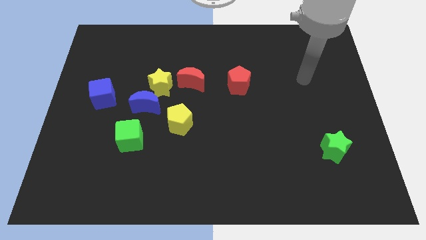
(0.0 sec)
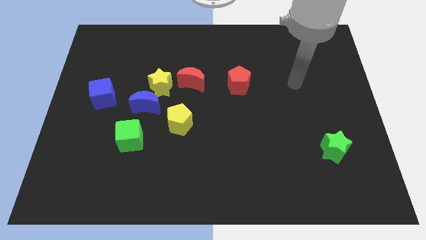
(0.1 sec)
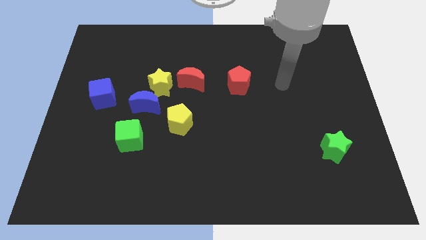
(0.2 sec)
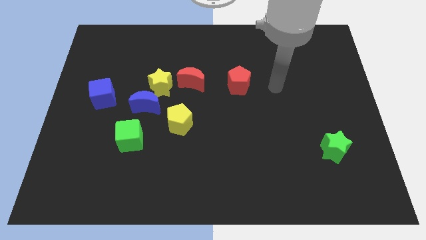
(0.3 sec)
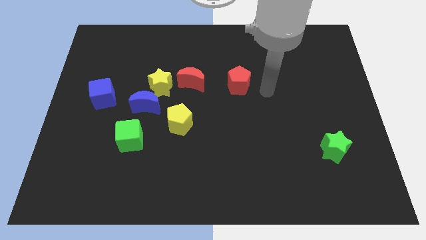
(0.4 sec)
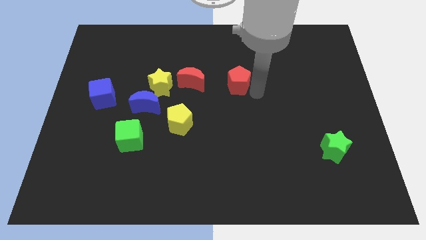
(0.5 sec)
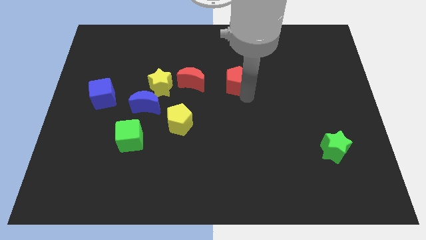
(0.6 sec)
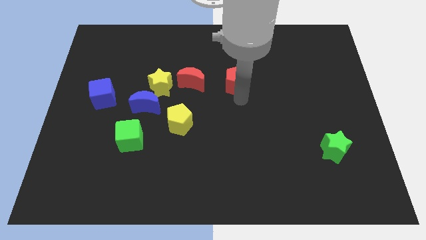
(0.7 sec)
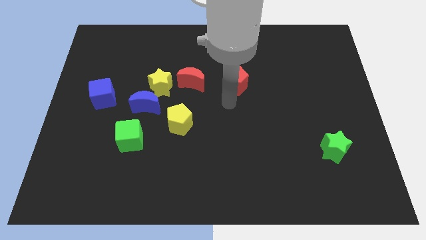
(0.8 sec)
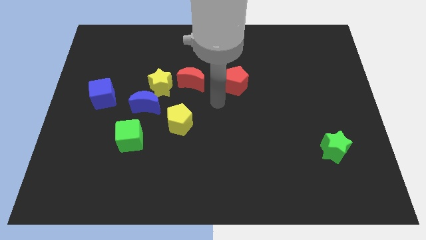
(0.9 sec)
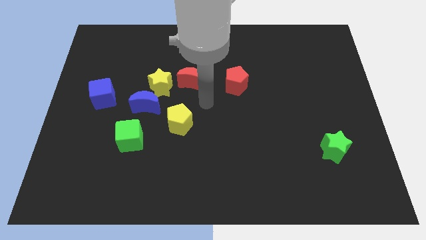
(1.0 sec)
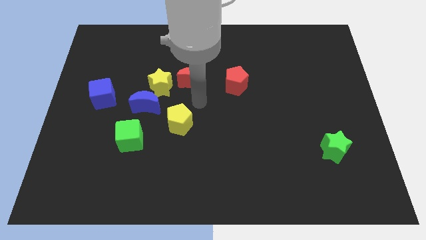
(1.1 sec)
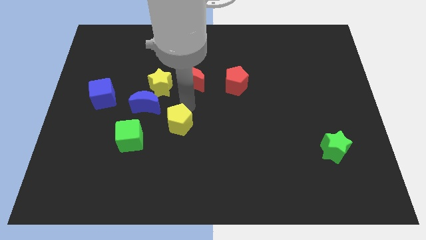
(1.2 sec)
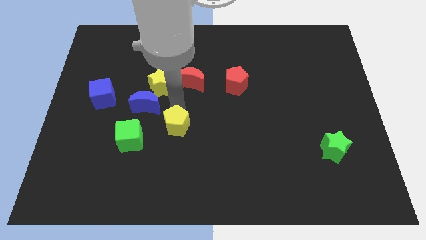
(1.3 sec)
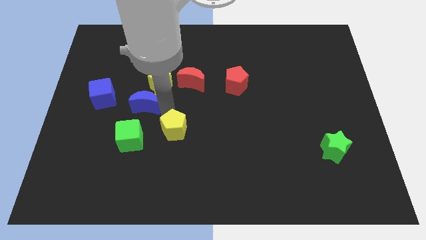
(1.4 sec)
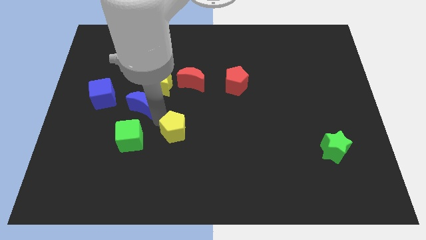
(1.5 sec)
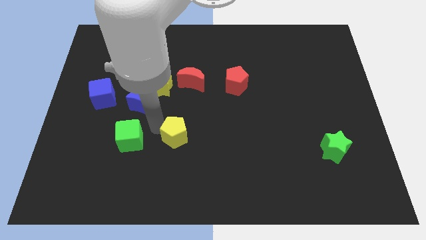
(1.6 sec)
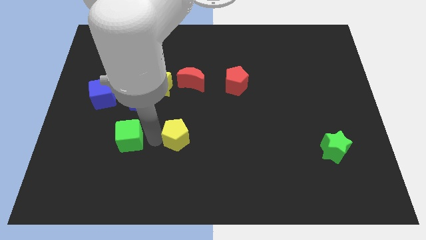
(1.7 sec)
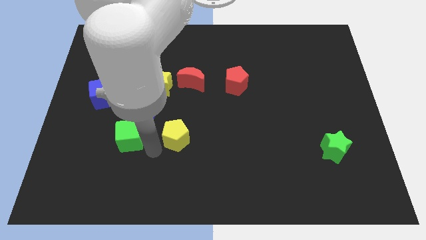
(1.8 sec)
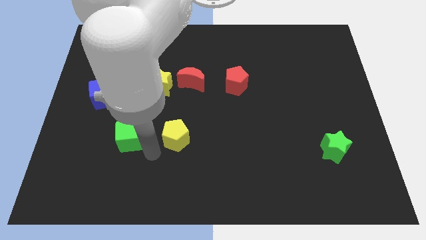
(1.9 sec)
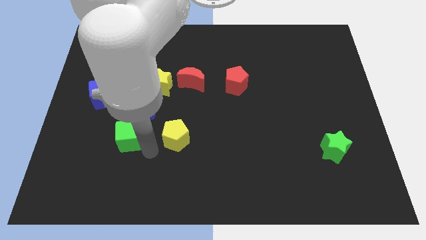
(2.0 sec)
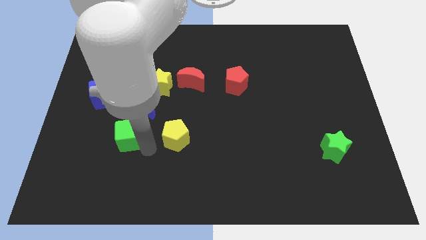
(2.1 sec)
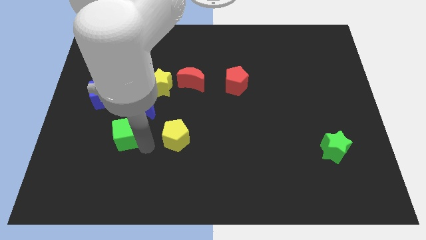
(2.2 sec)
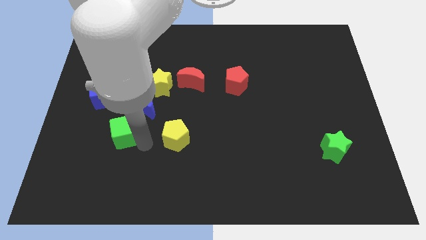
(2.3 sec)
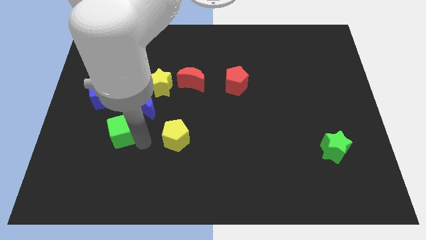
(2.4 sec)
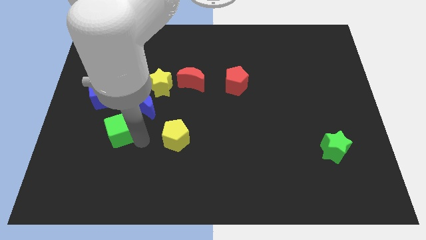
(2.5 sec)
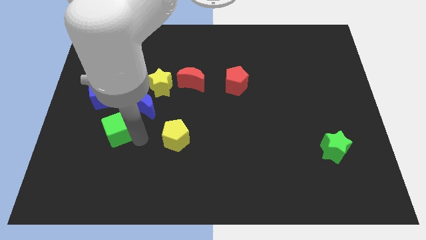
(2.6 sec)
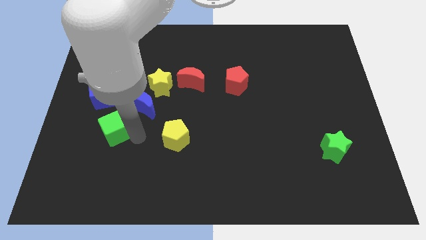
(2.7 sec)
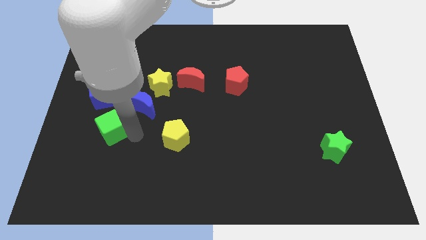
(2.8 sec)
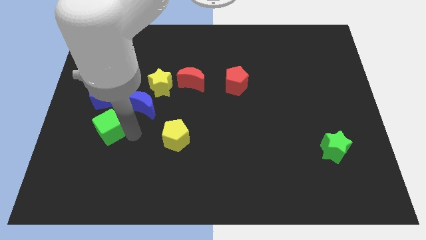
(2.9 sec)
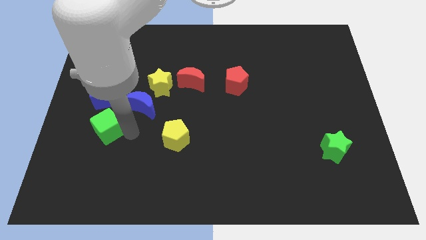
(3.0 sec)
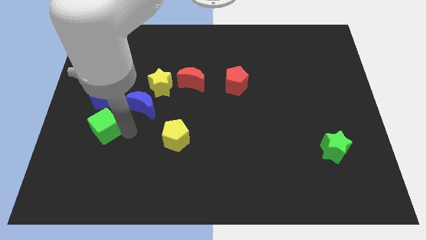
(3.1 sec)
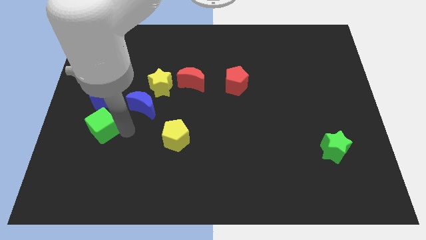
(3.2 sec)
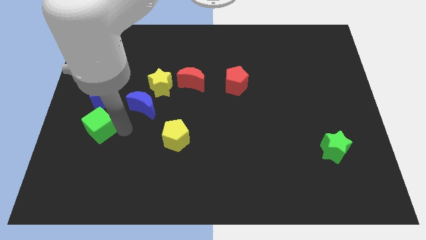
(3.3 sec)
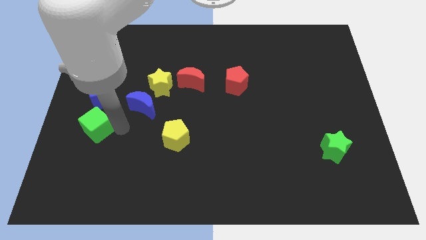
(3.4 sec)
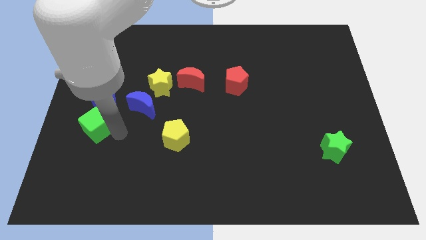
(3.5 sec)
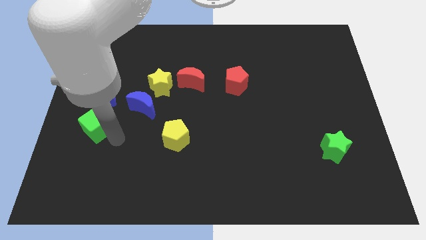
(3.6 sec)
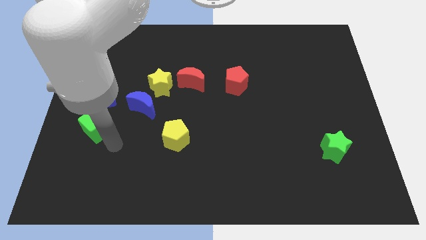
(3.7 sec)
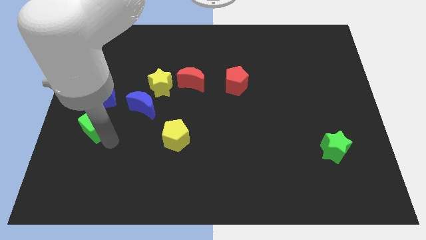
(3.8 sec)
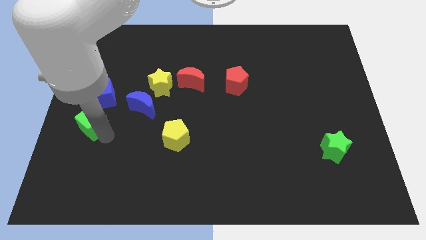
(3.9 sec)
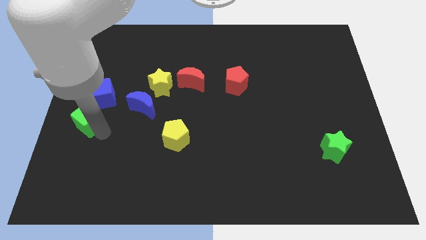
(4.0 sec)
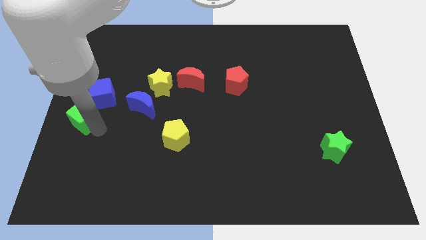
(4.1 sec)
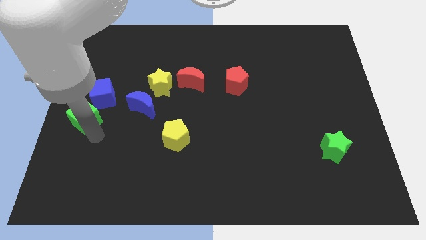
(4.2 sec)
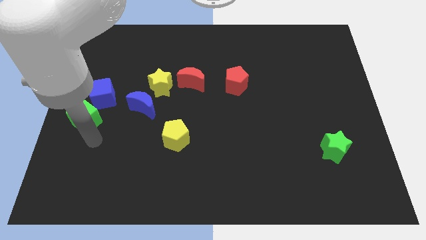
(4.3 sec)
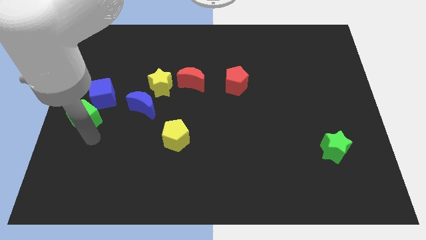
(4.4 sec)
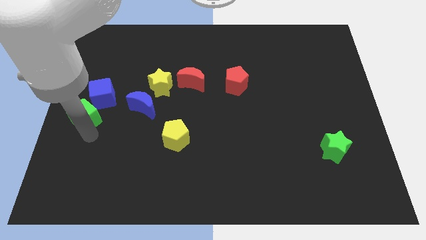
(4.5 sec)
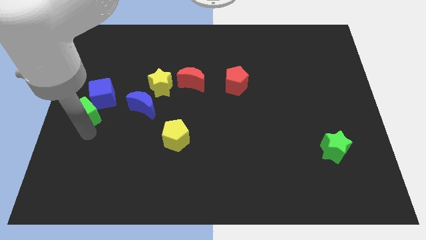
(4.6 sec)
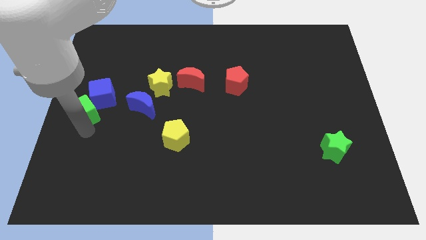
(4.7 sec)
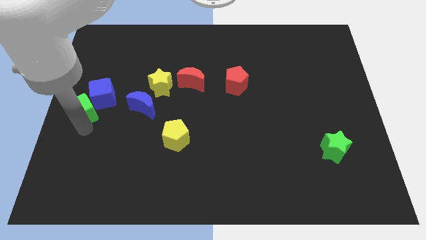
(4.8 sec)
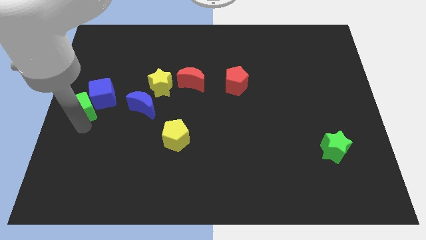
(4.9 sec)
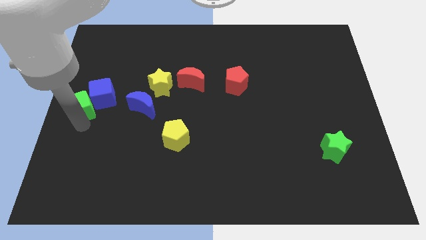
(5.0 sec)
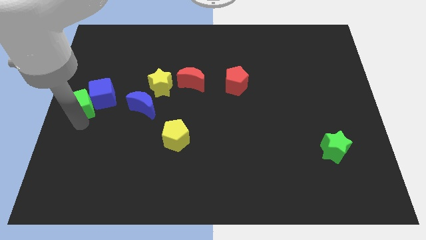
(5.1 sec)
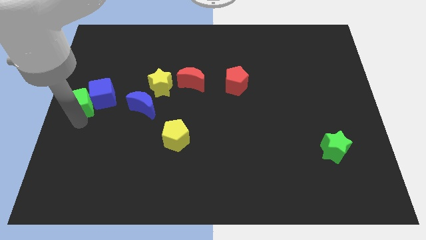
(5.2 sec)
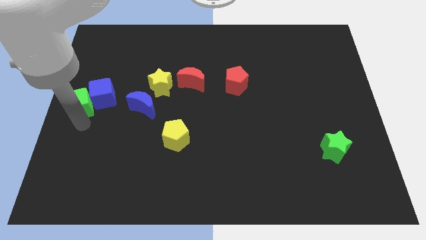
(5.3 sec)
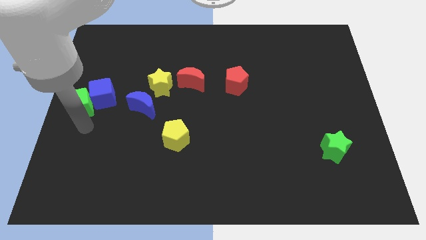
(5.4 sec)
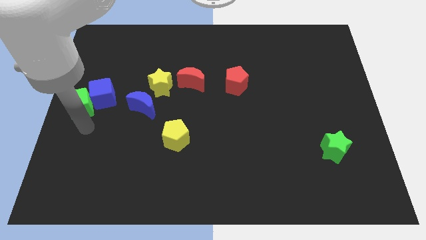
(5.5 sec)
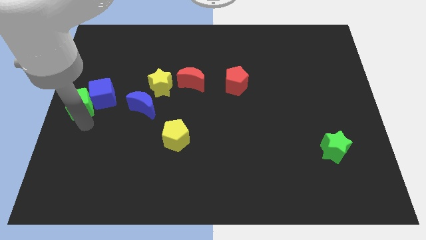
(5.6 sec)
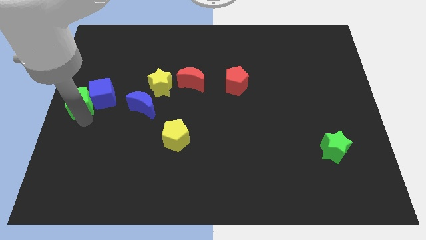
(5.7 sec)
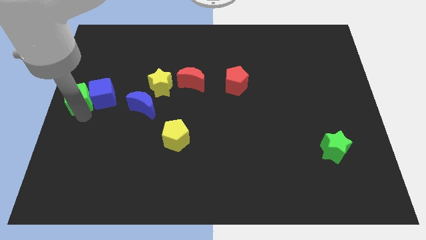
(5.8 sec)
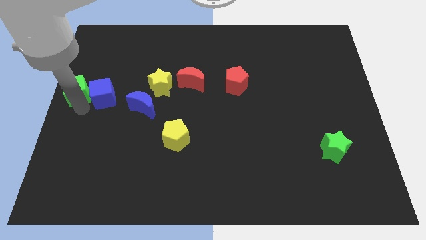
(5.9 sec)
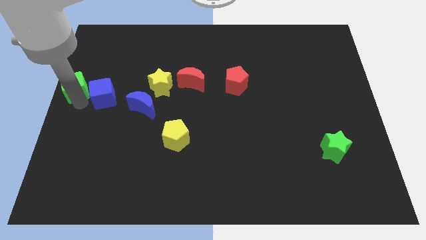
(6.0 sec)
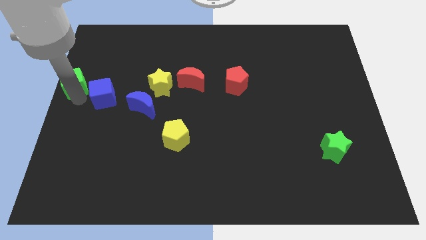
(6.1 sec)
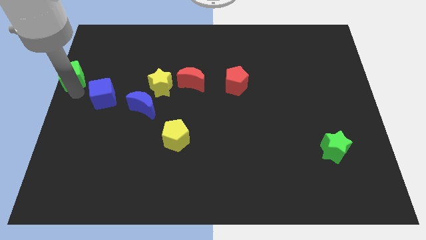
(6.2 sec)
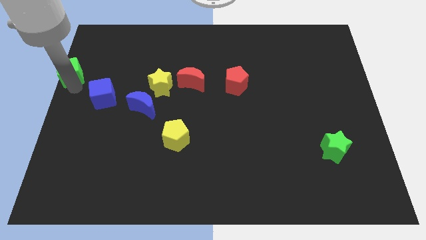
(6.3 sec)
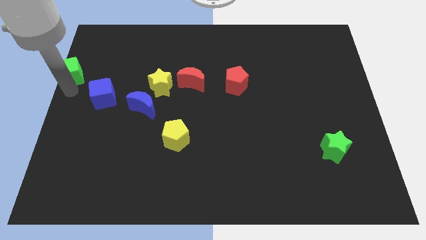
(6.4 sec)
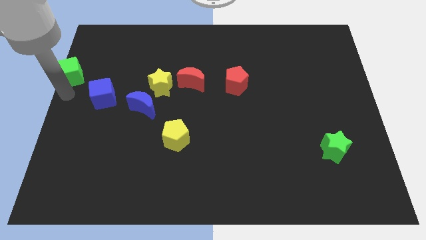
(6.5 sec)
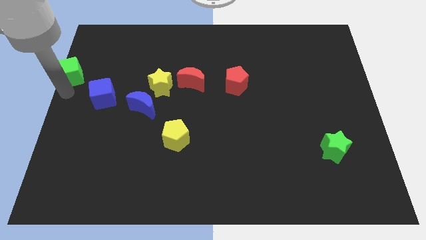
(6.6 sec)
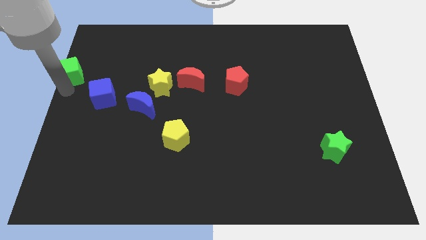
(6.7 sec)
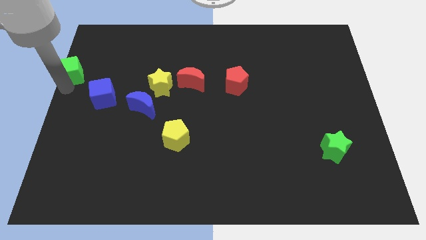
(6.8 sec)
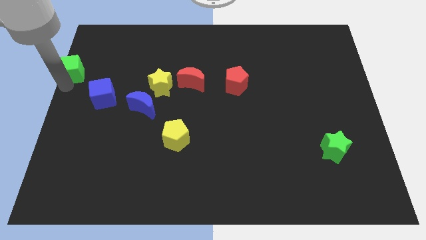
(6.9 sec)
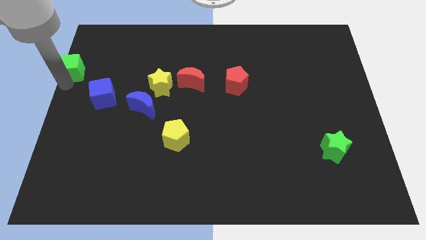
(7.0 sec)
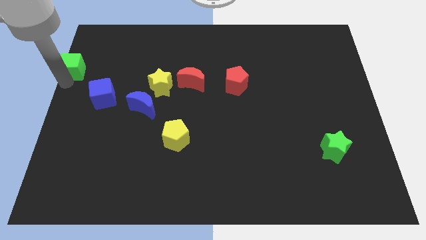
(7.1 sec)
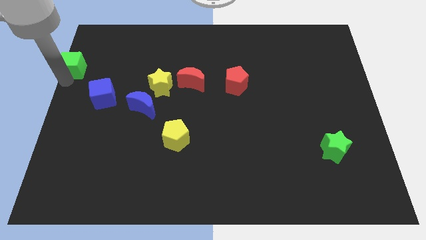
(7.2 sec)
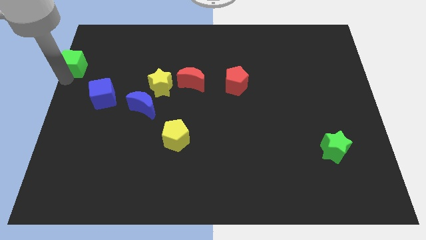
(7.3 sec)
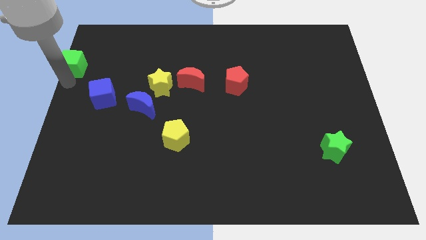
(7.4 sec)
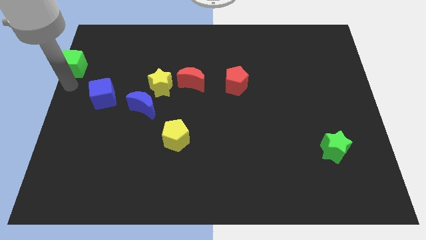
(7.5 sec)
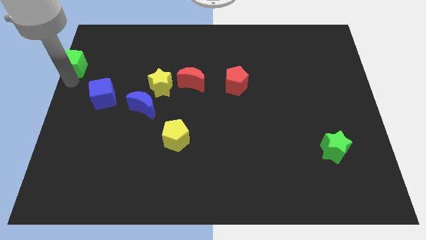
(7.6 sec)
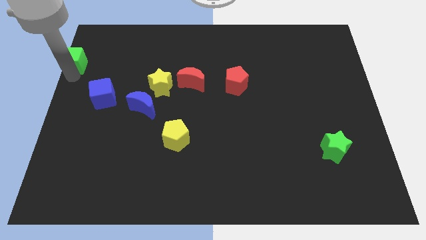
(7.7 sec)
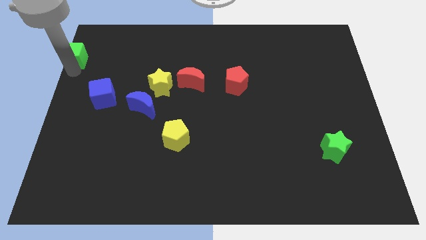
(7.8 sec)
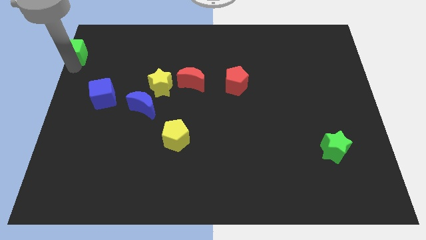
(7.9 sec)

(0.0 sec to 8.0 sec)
slide the green cube to the upper left corner
